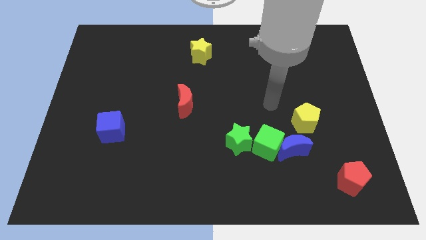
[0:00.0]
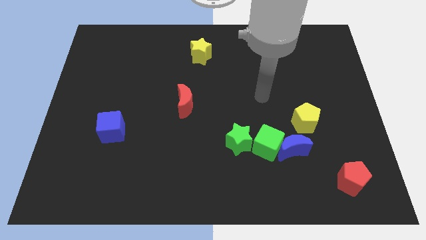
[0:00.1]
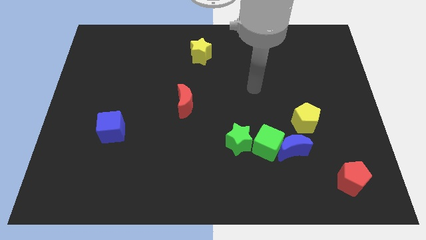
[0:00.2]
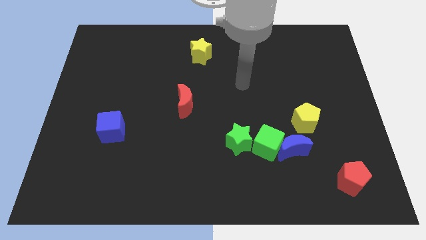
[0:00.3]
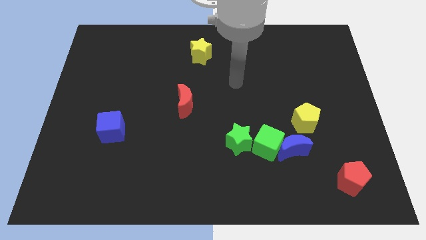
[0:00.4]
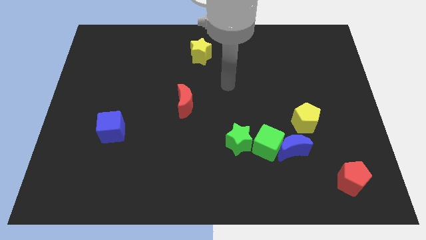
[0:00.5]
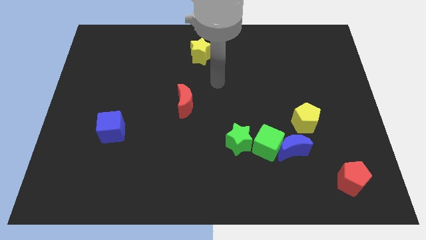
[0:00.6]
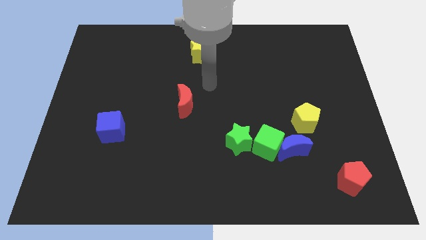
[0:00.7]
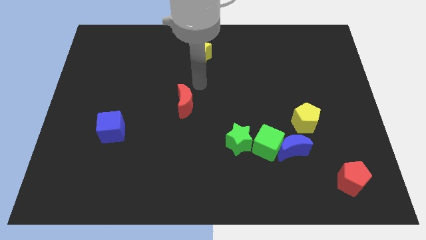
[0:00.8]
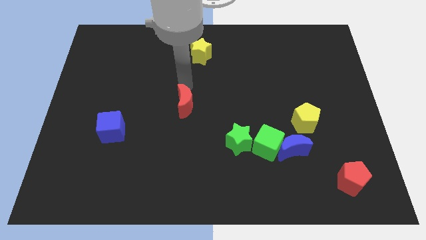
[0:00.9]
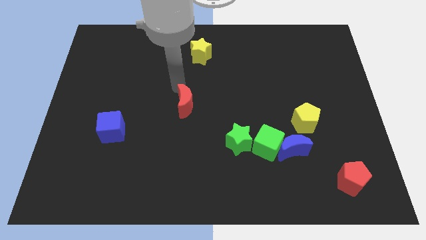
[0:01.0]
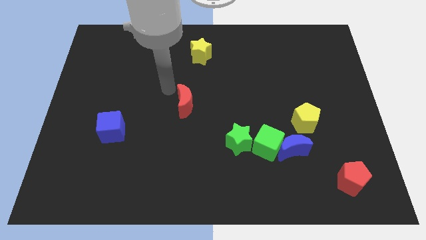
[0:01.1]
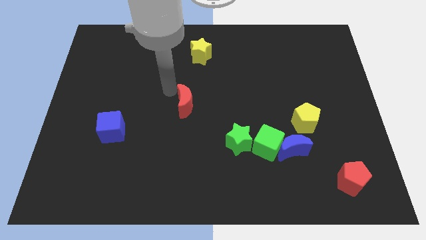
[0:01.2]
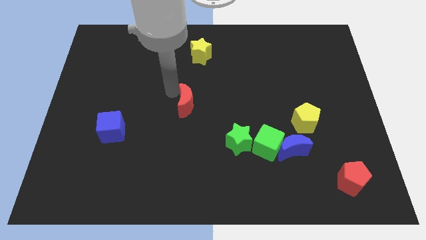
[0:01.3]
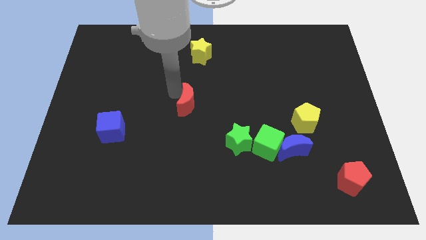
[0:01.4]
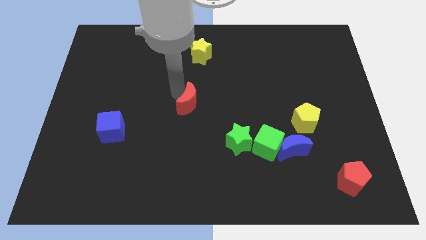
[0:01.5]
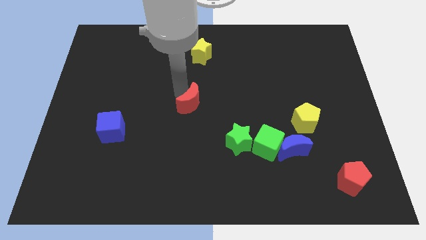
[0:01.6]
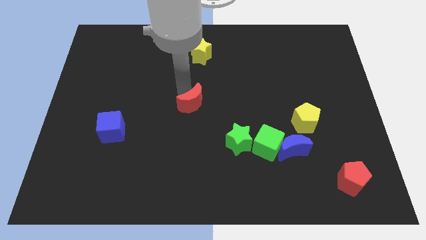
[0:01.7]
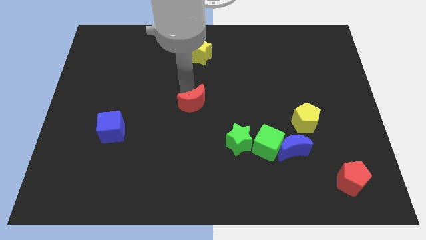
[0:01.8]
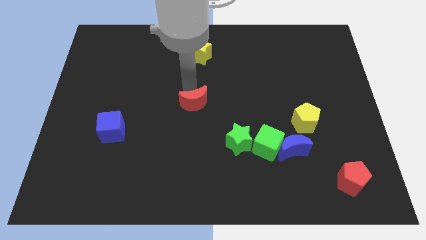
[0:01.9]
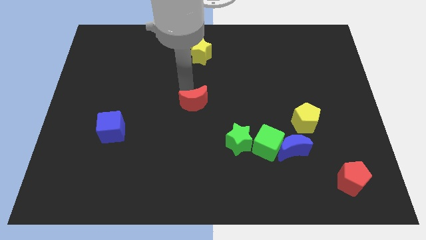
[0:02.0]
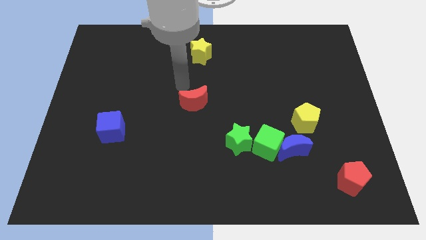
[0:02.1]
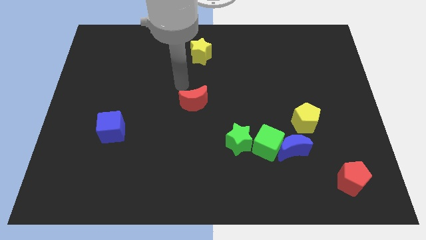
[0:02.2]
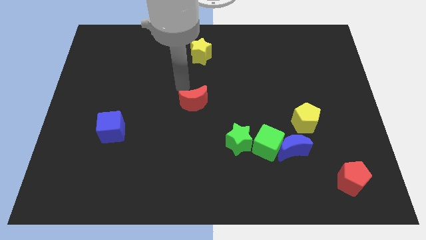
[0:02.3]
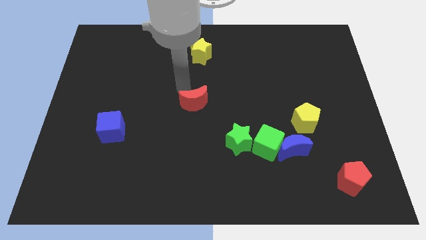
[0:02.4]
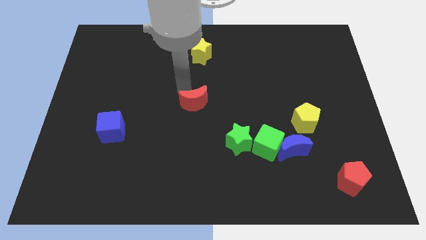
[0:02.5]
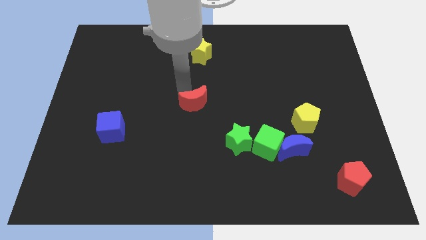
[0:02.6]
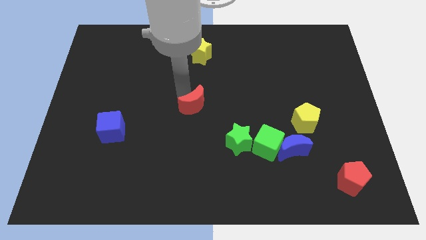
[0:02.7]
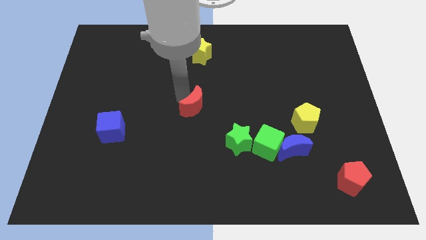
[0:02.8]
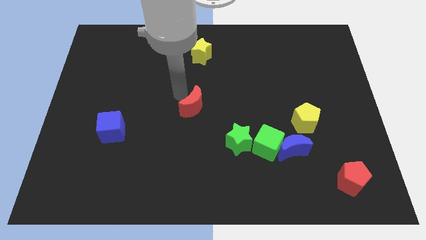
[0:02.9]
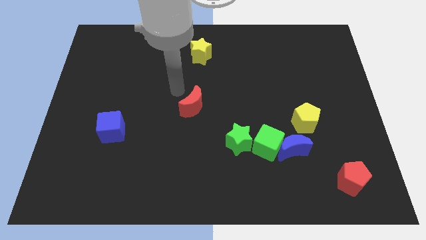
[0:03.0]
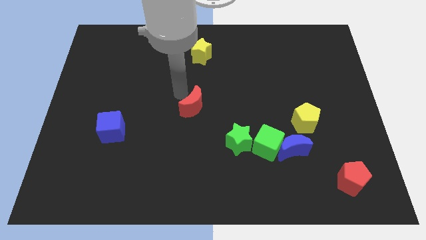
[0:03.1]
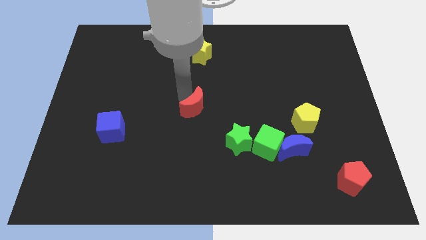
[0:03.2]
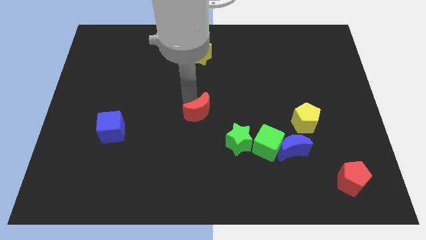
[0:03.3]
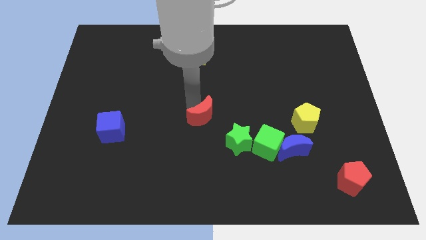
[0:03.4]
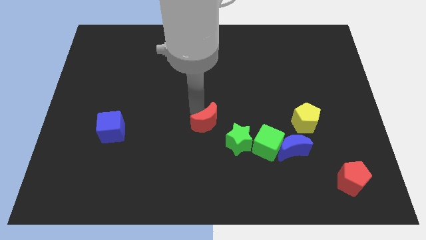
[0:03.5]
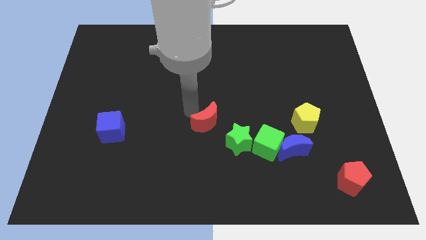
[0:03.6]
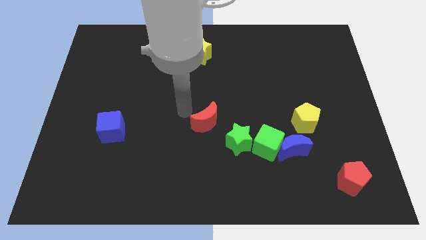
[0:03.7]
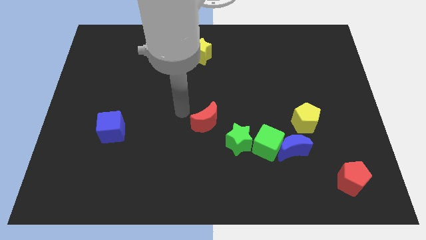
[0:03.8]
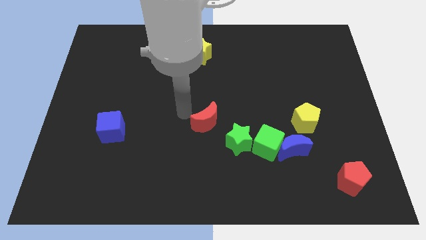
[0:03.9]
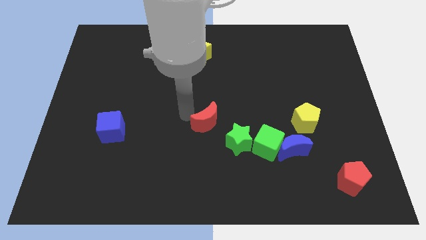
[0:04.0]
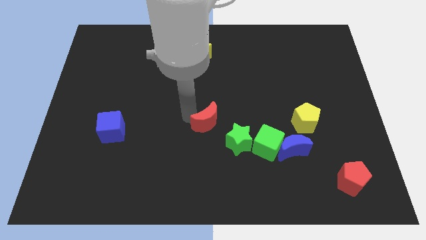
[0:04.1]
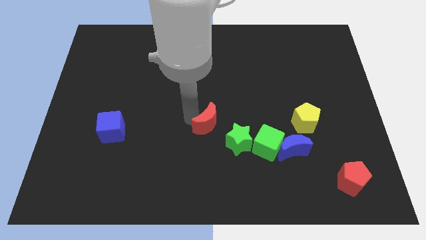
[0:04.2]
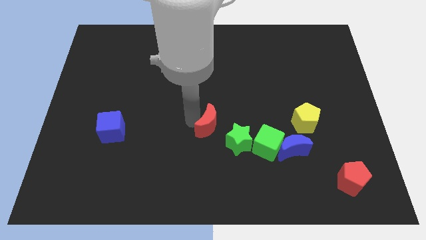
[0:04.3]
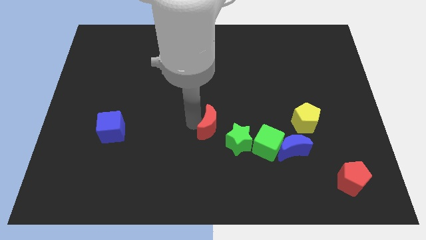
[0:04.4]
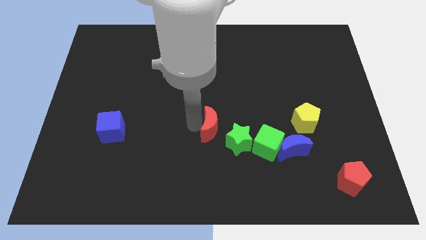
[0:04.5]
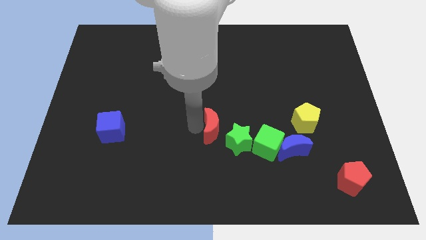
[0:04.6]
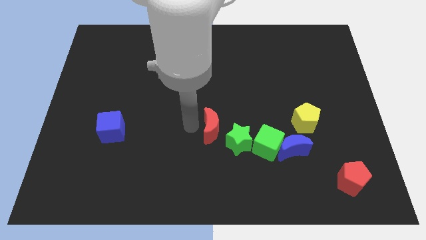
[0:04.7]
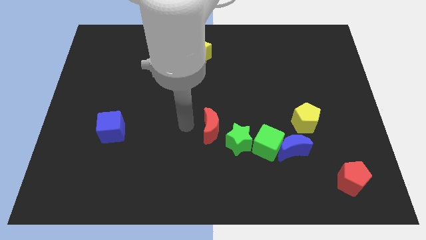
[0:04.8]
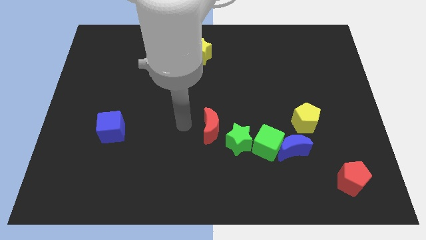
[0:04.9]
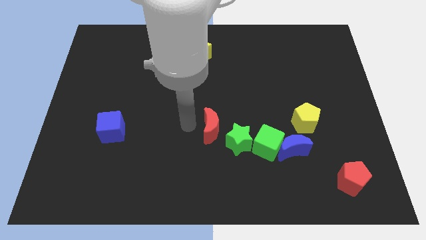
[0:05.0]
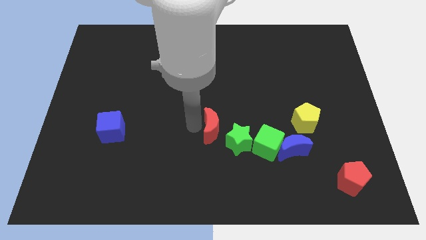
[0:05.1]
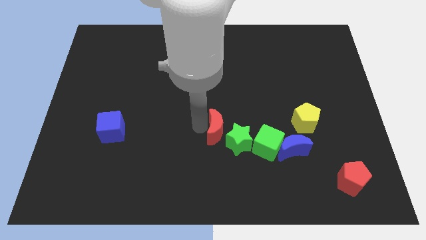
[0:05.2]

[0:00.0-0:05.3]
push the red moon next to the green star

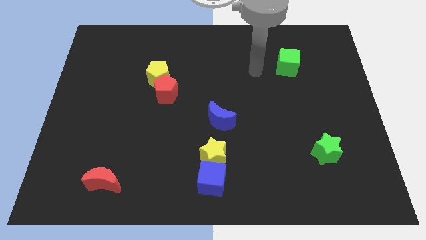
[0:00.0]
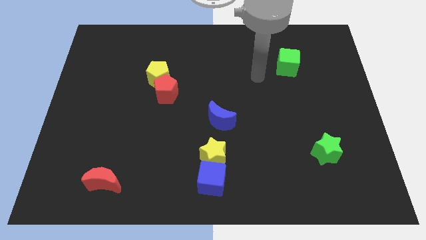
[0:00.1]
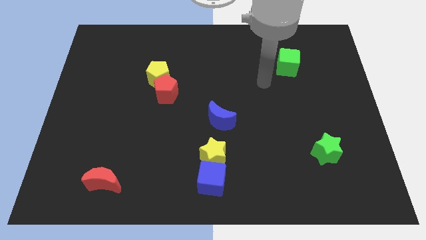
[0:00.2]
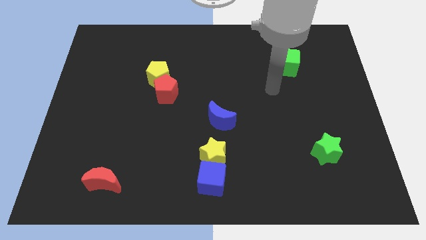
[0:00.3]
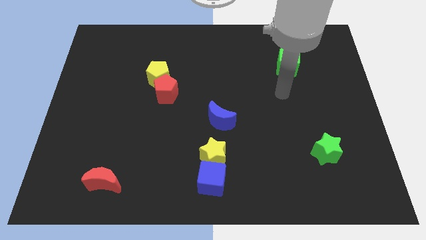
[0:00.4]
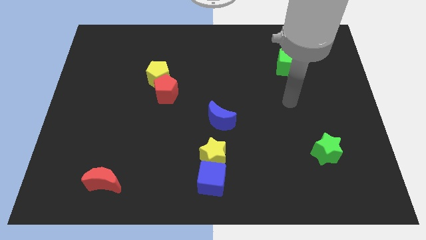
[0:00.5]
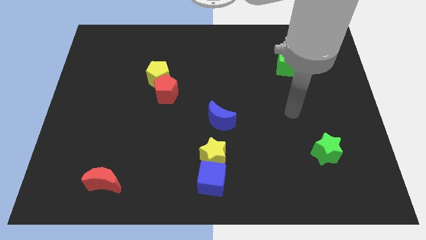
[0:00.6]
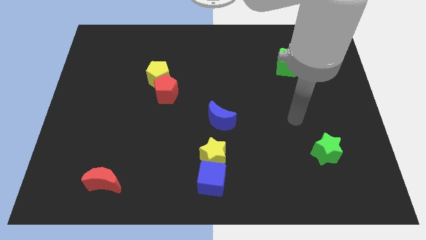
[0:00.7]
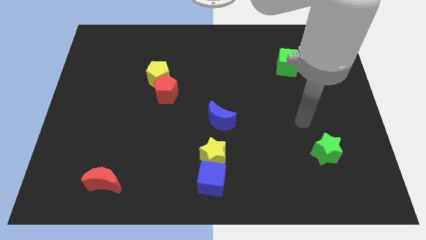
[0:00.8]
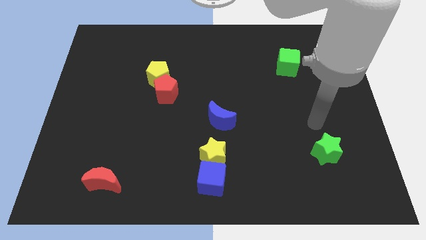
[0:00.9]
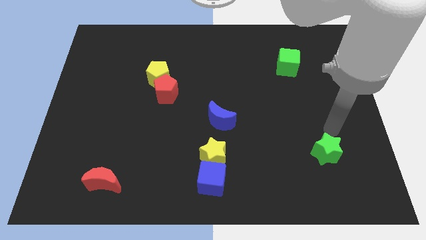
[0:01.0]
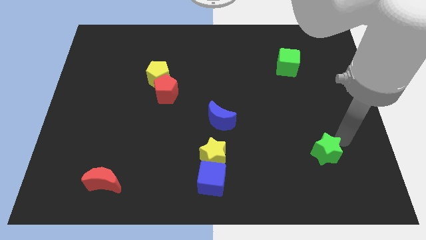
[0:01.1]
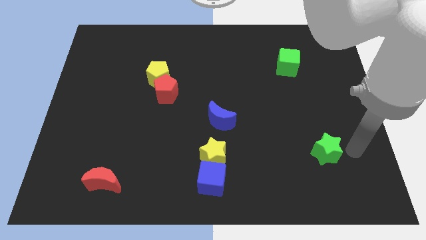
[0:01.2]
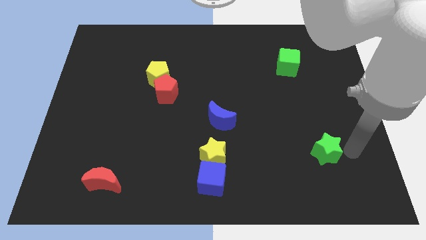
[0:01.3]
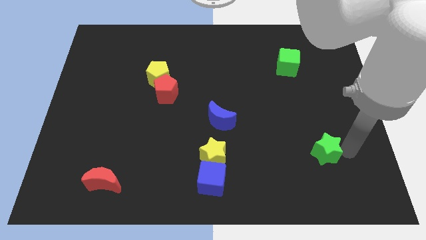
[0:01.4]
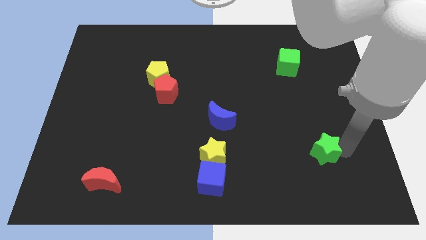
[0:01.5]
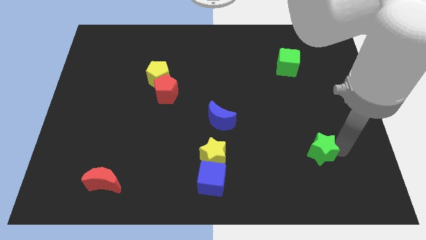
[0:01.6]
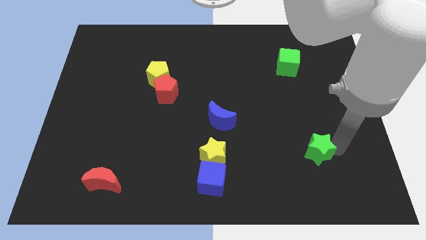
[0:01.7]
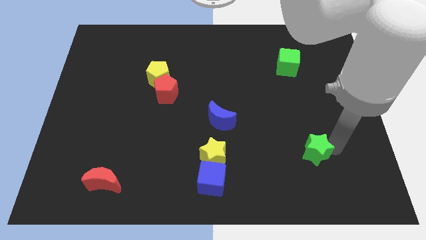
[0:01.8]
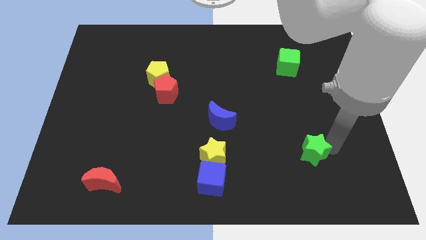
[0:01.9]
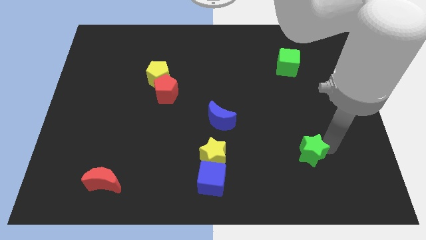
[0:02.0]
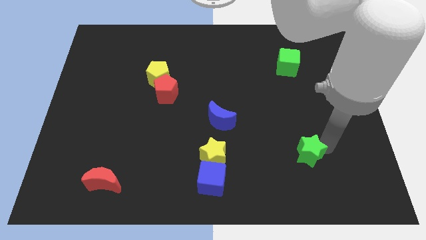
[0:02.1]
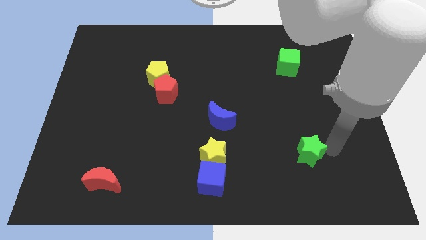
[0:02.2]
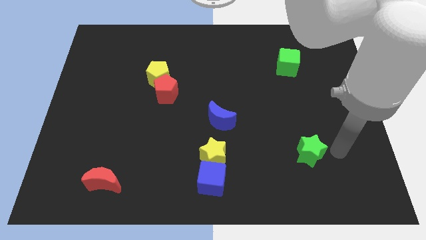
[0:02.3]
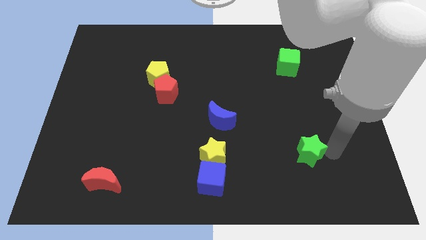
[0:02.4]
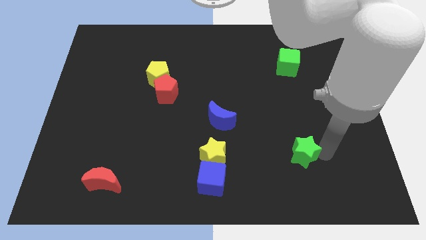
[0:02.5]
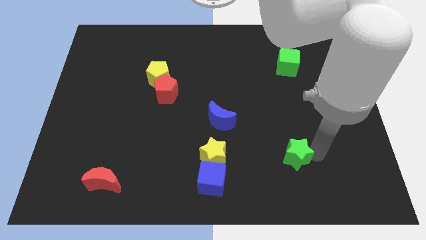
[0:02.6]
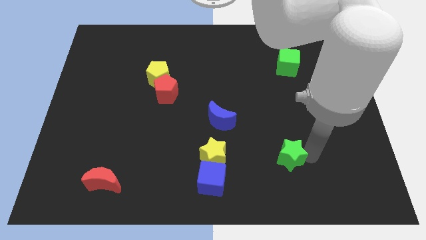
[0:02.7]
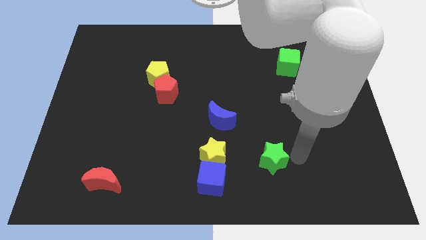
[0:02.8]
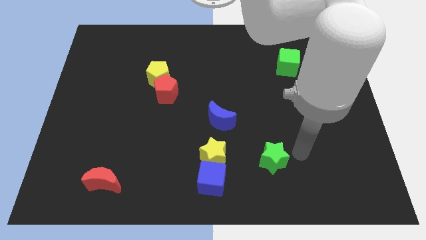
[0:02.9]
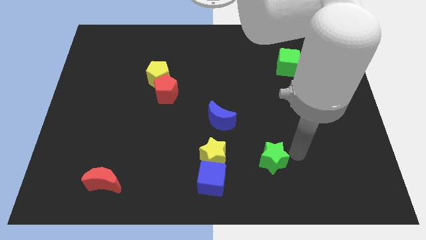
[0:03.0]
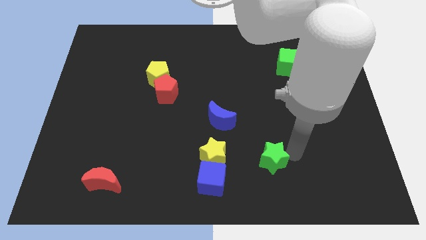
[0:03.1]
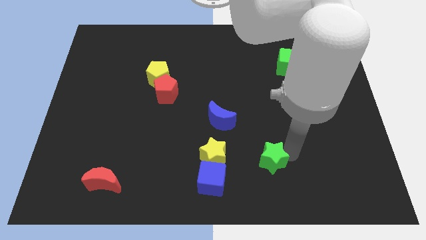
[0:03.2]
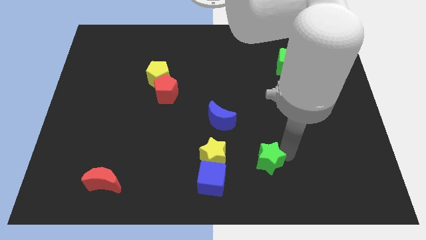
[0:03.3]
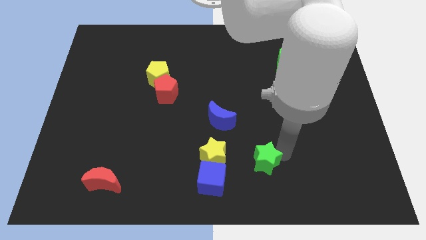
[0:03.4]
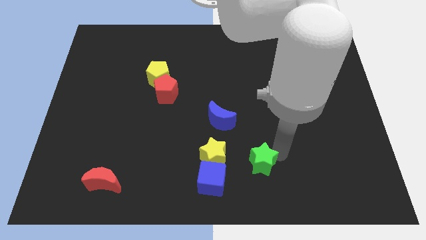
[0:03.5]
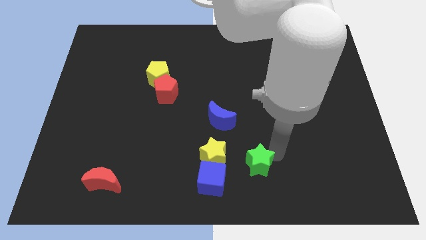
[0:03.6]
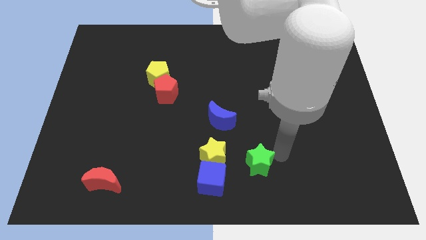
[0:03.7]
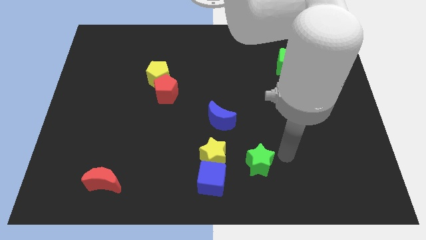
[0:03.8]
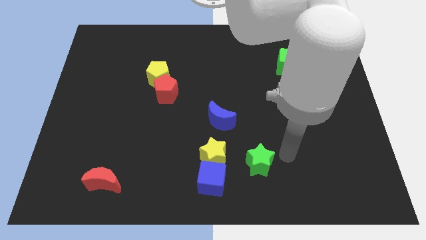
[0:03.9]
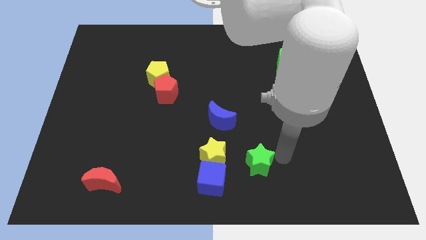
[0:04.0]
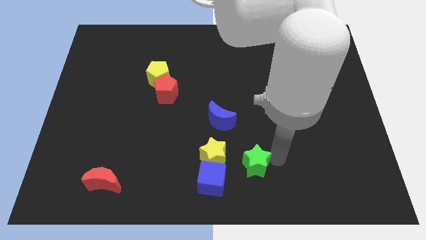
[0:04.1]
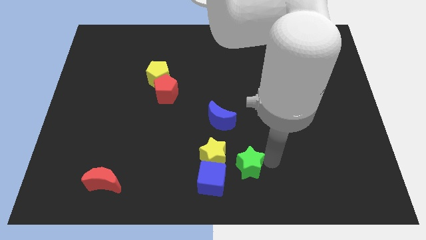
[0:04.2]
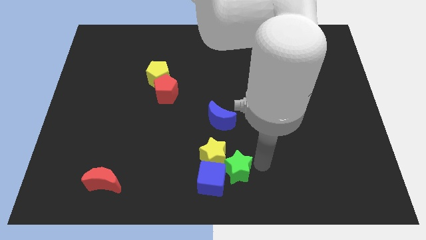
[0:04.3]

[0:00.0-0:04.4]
put the green star towards the blue cube
